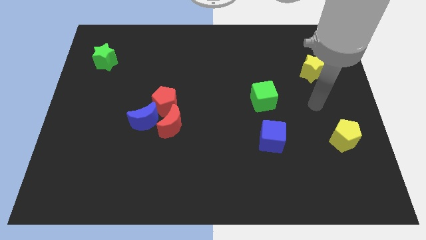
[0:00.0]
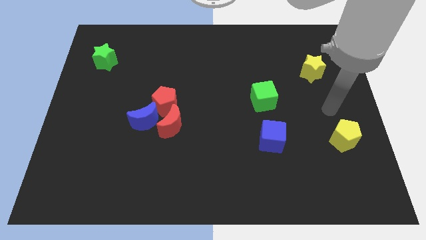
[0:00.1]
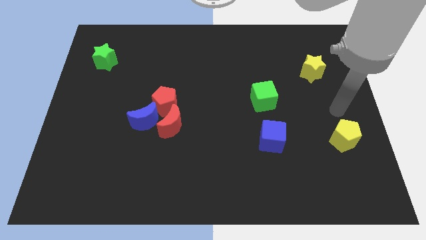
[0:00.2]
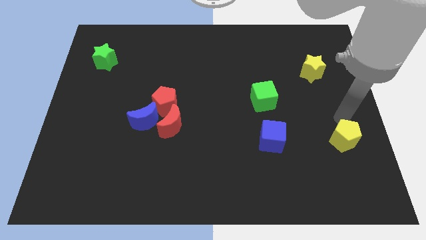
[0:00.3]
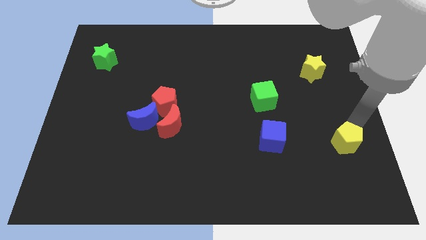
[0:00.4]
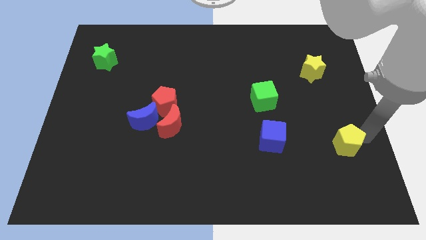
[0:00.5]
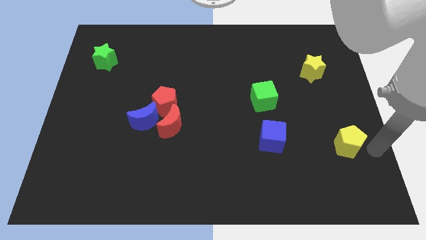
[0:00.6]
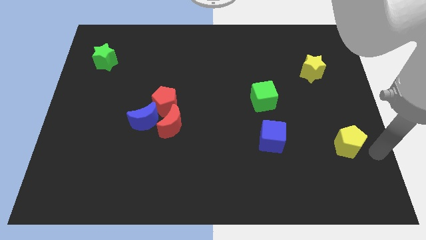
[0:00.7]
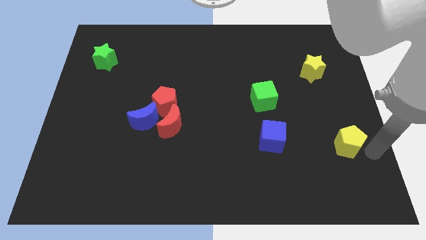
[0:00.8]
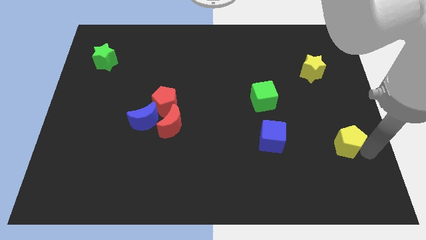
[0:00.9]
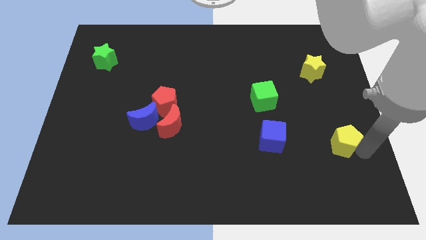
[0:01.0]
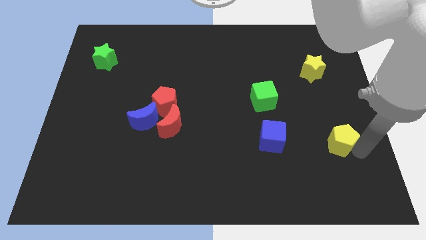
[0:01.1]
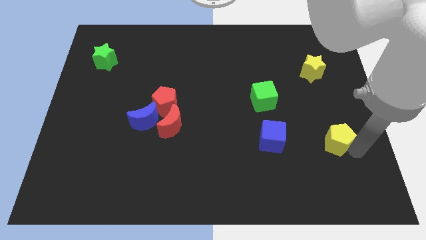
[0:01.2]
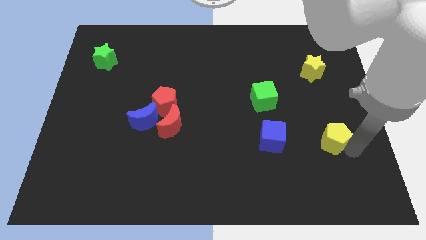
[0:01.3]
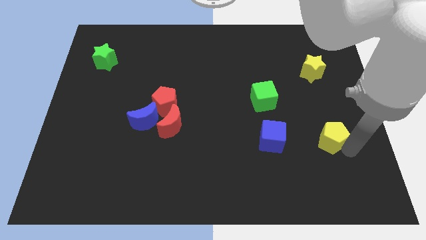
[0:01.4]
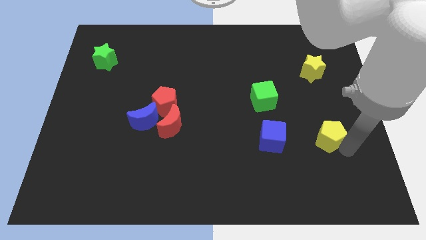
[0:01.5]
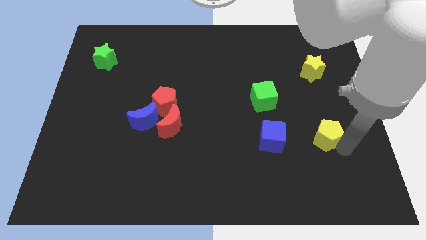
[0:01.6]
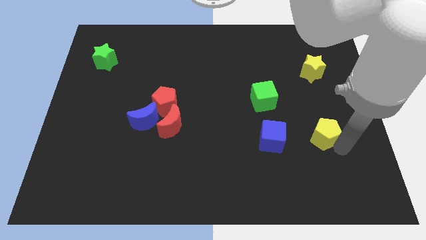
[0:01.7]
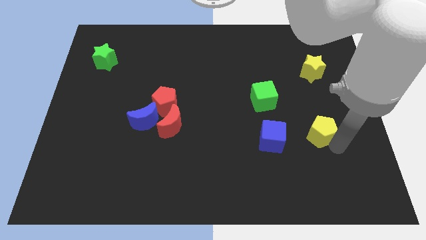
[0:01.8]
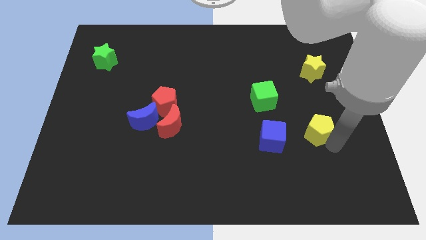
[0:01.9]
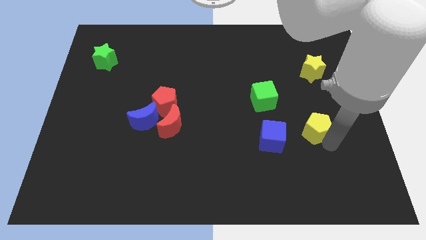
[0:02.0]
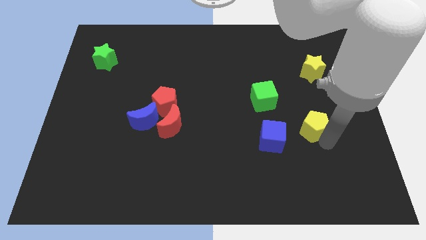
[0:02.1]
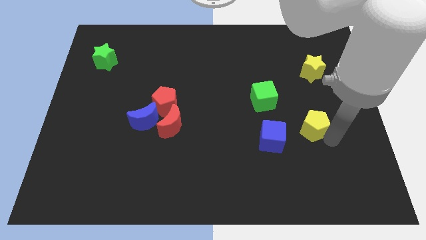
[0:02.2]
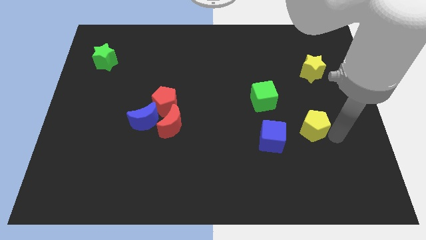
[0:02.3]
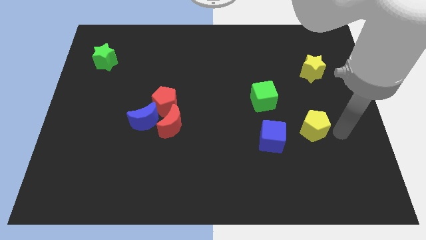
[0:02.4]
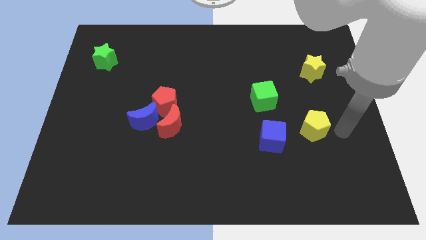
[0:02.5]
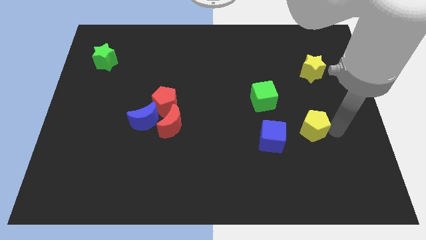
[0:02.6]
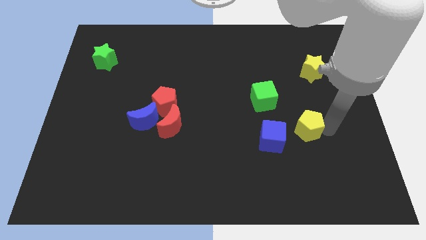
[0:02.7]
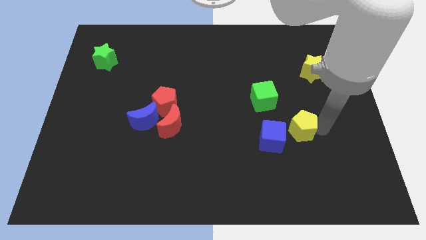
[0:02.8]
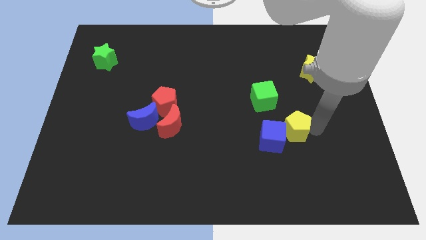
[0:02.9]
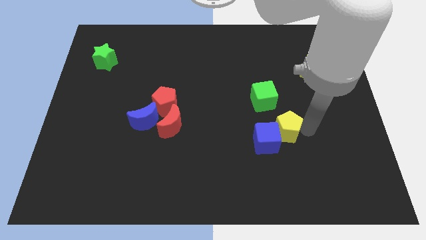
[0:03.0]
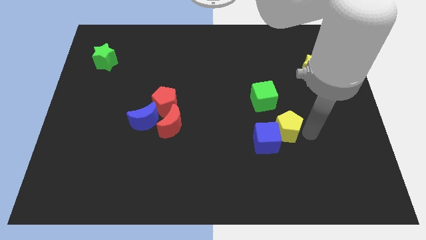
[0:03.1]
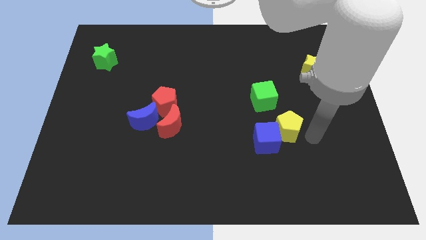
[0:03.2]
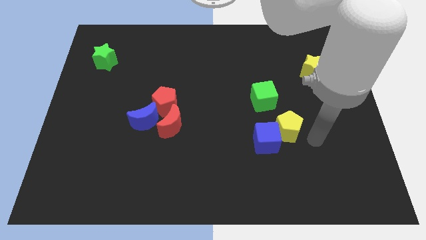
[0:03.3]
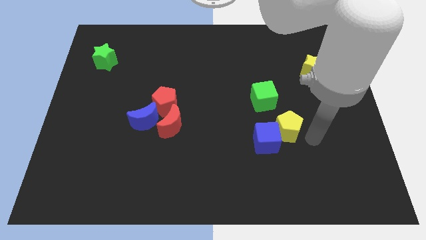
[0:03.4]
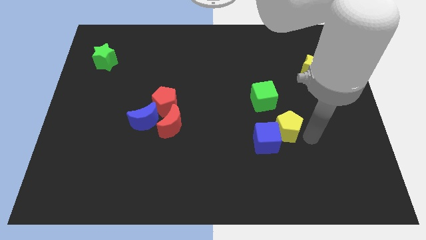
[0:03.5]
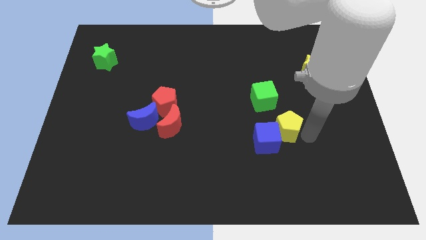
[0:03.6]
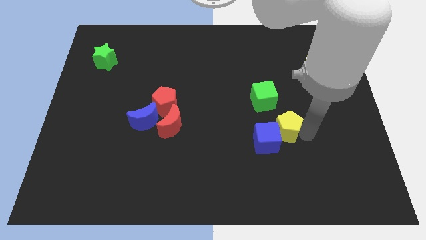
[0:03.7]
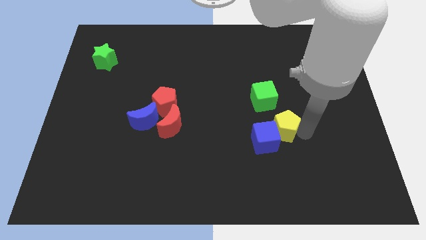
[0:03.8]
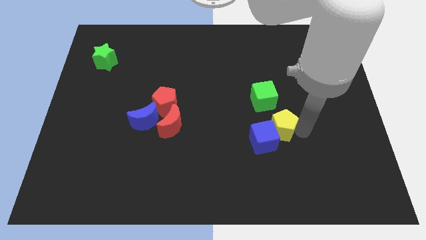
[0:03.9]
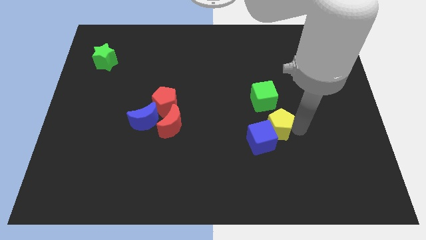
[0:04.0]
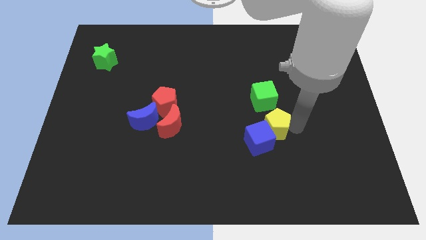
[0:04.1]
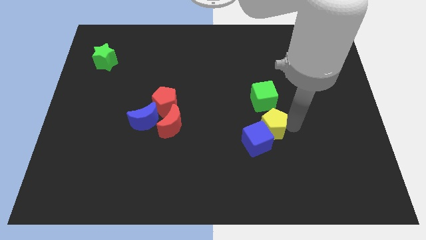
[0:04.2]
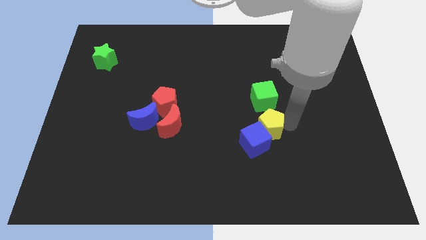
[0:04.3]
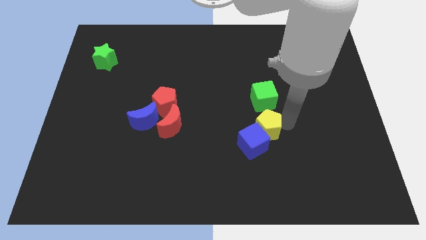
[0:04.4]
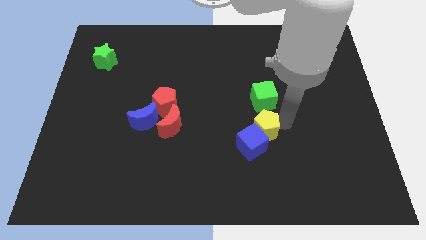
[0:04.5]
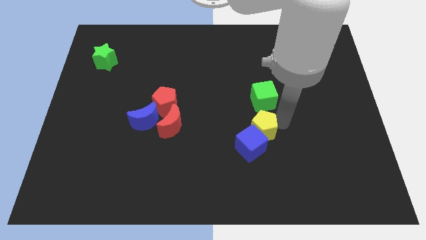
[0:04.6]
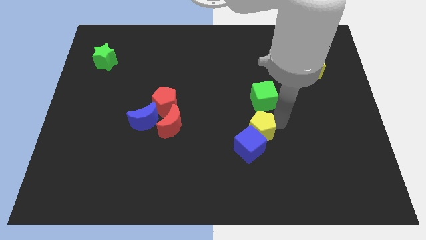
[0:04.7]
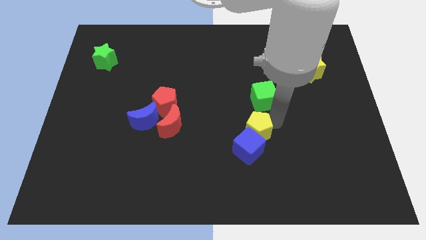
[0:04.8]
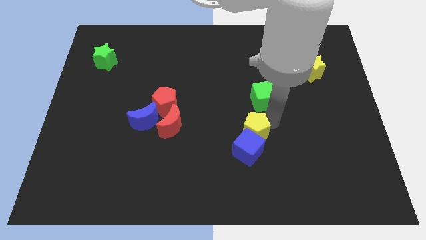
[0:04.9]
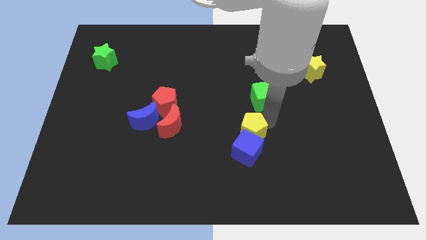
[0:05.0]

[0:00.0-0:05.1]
slide the yellow pentagon left

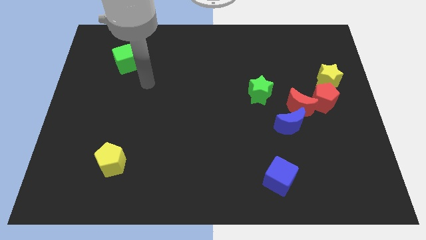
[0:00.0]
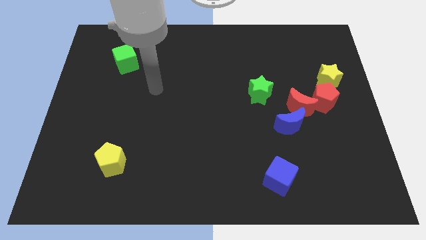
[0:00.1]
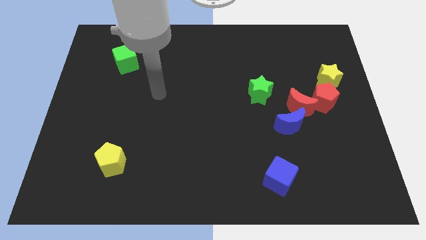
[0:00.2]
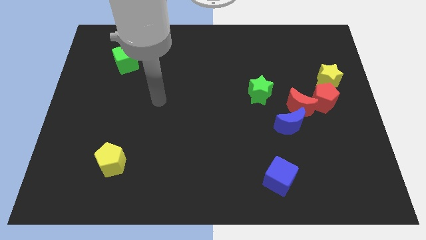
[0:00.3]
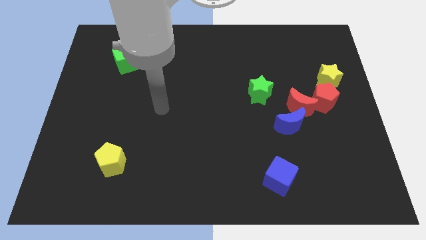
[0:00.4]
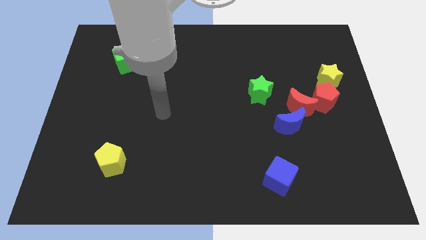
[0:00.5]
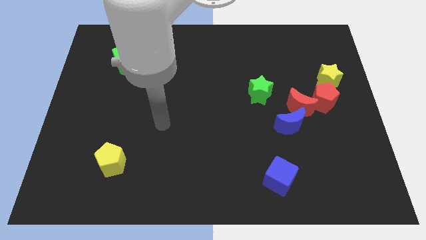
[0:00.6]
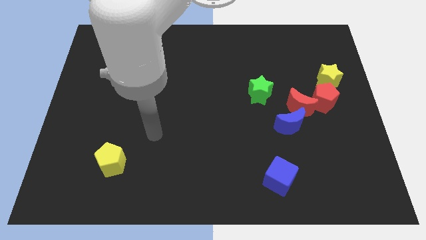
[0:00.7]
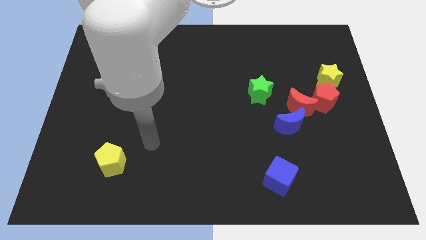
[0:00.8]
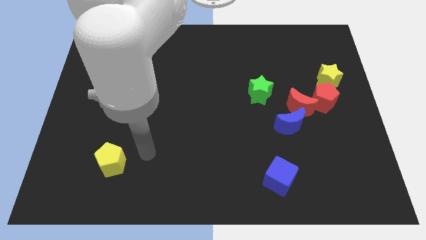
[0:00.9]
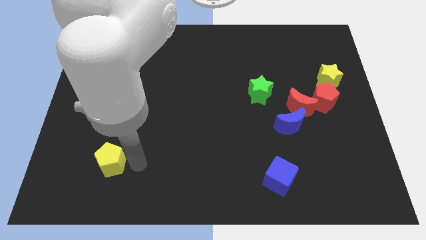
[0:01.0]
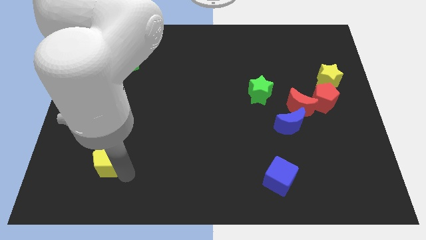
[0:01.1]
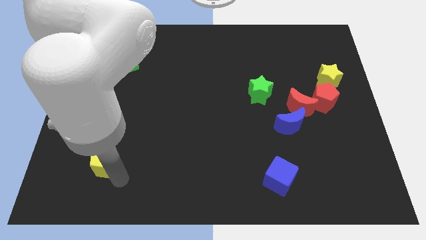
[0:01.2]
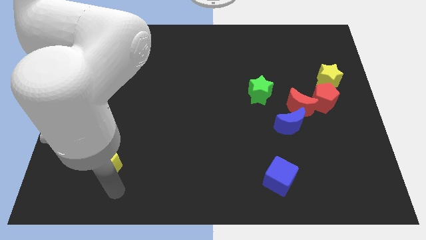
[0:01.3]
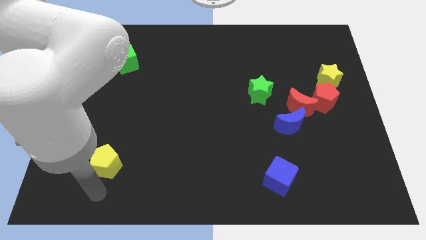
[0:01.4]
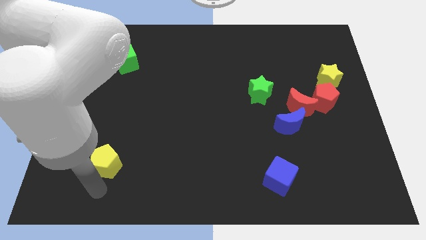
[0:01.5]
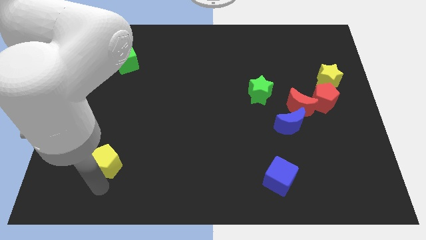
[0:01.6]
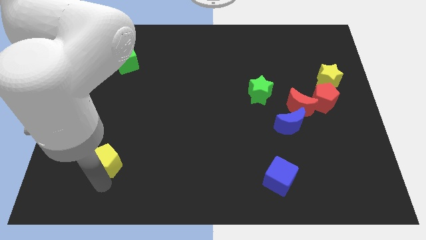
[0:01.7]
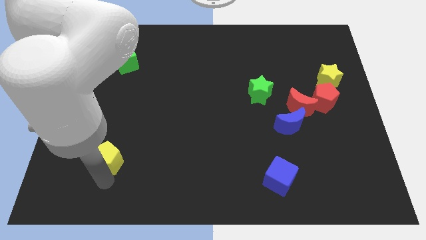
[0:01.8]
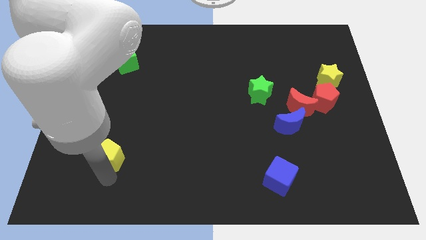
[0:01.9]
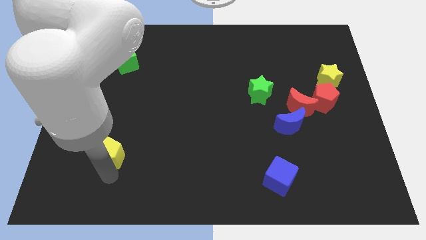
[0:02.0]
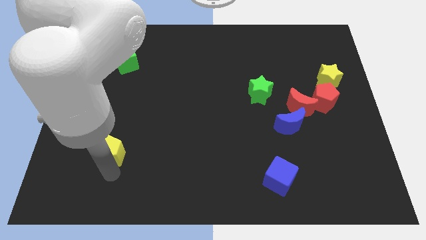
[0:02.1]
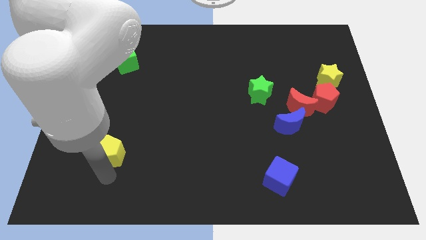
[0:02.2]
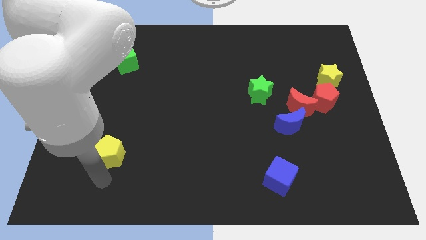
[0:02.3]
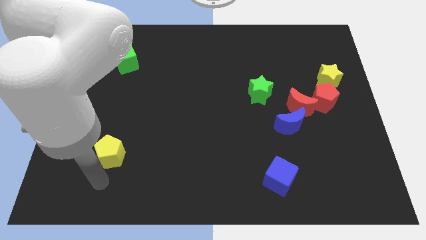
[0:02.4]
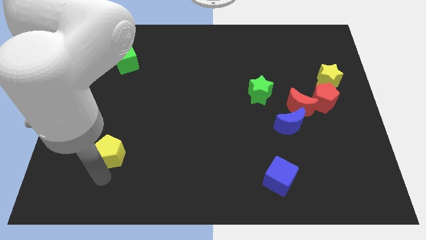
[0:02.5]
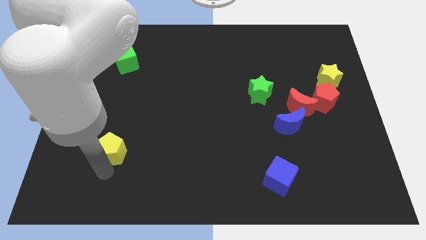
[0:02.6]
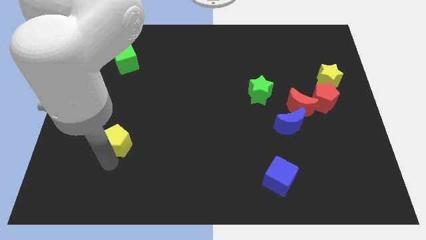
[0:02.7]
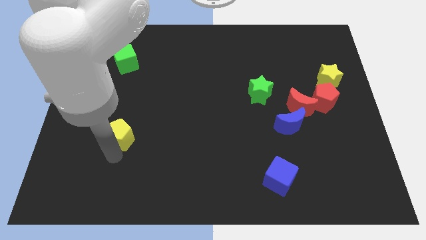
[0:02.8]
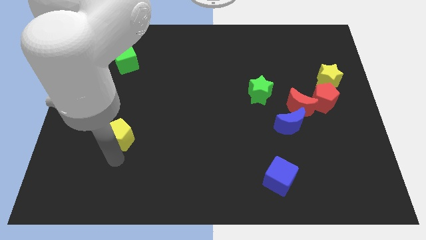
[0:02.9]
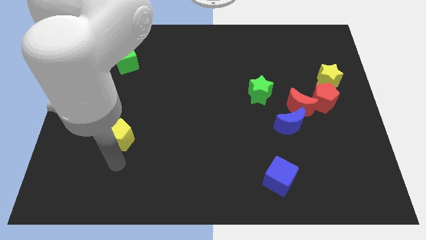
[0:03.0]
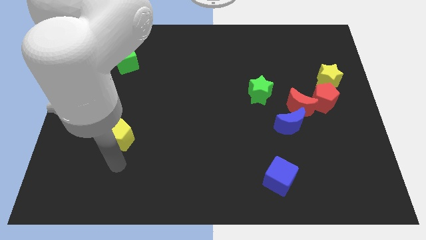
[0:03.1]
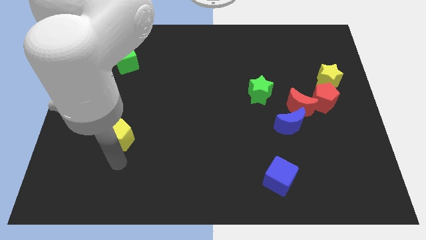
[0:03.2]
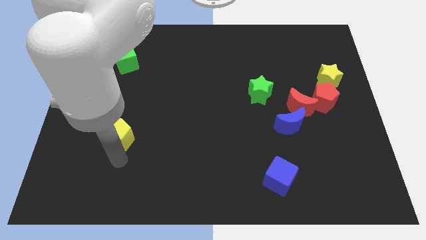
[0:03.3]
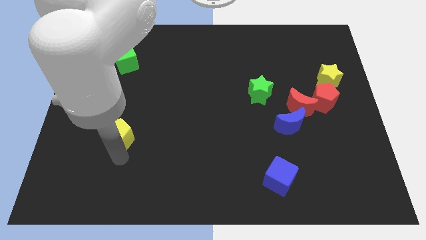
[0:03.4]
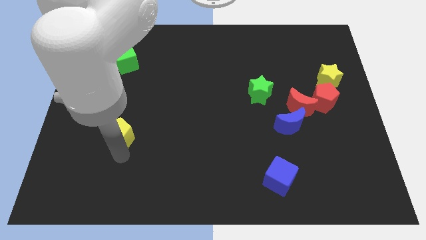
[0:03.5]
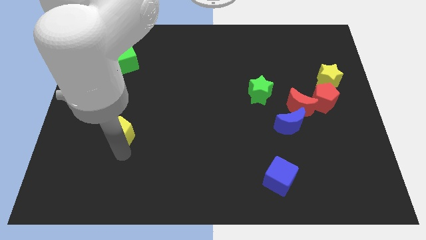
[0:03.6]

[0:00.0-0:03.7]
move the yellow pentagon up a little
